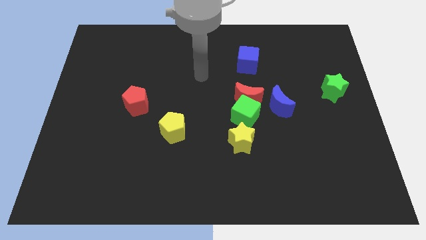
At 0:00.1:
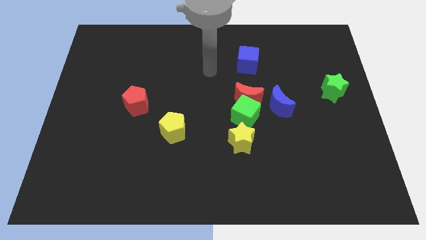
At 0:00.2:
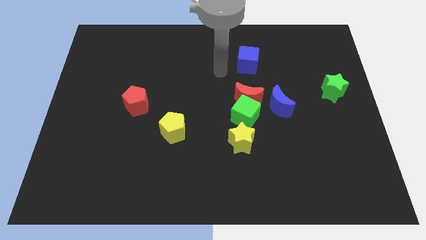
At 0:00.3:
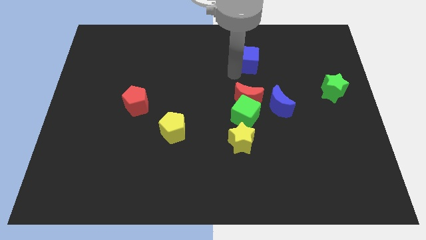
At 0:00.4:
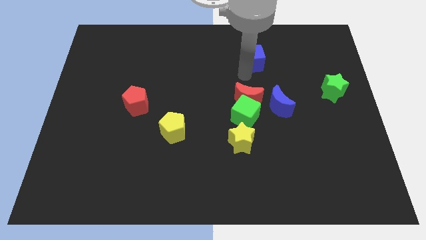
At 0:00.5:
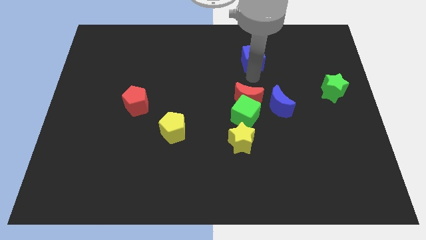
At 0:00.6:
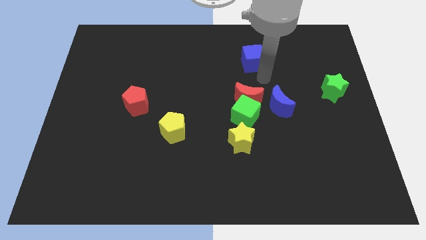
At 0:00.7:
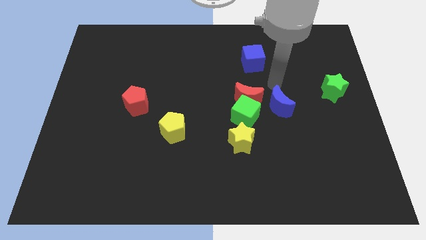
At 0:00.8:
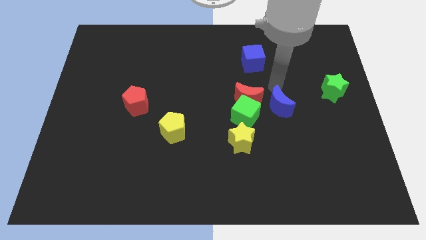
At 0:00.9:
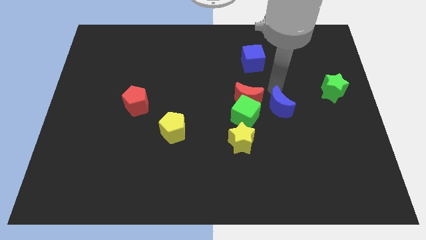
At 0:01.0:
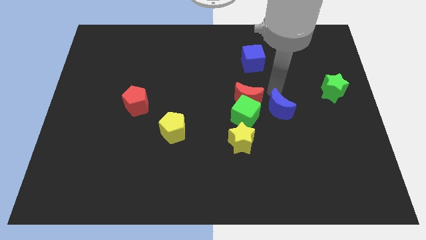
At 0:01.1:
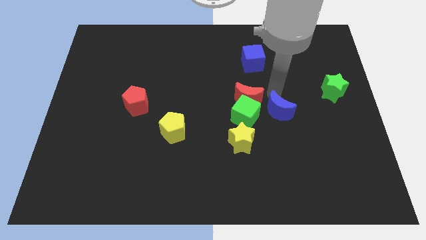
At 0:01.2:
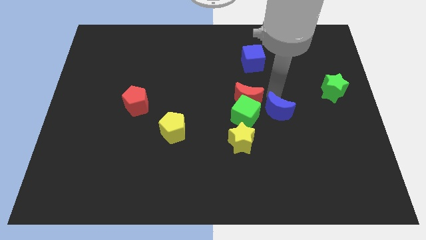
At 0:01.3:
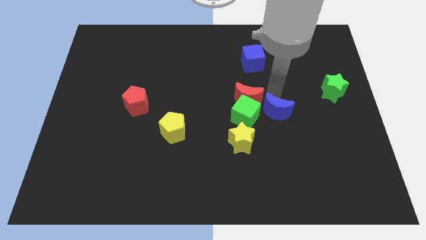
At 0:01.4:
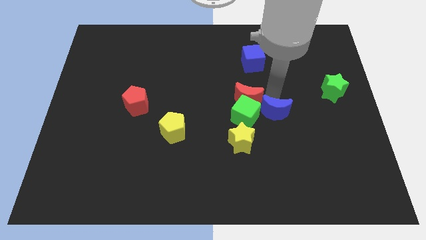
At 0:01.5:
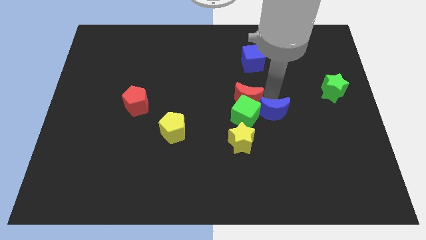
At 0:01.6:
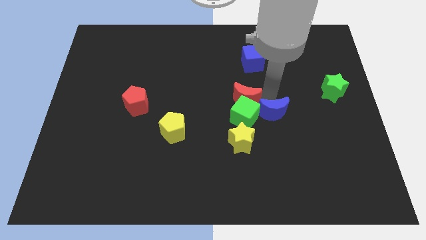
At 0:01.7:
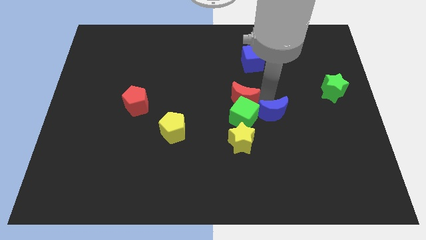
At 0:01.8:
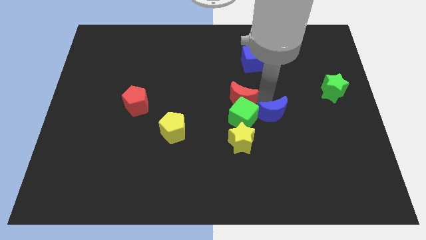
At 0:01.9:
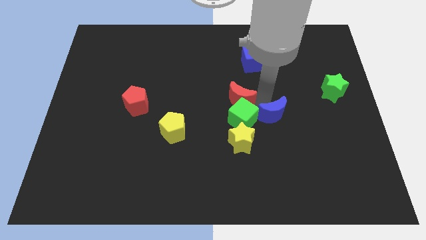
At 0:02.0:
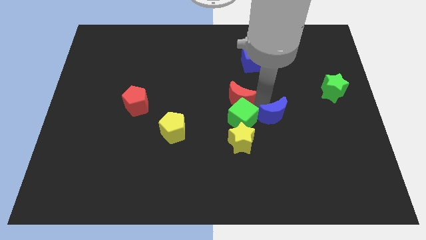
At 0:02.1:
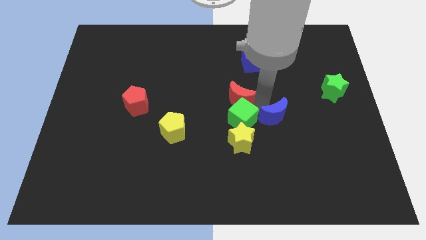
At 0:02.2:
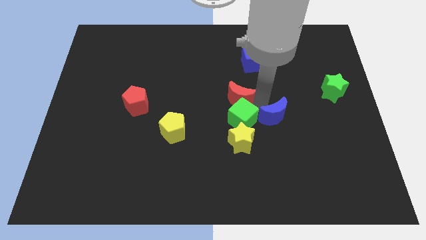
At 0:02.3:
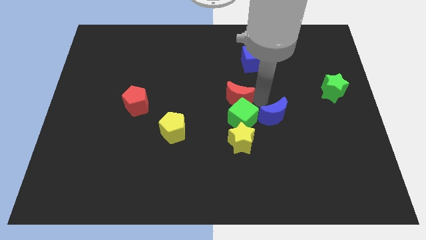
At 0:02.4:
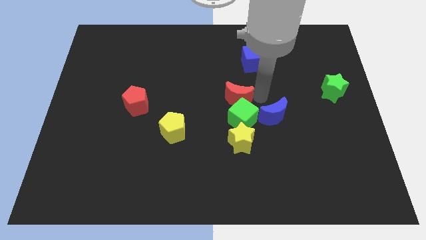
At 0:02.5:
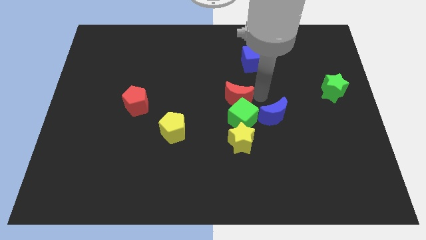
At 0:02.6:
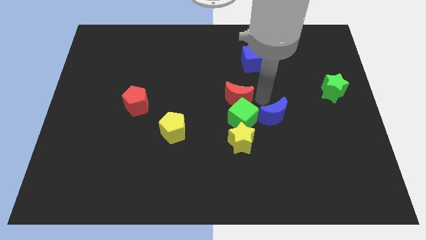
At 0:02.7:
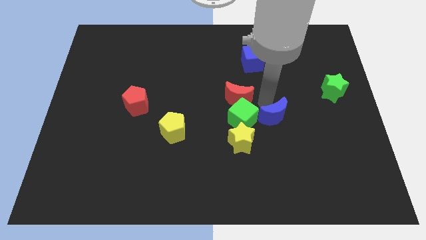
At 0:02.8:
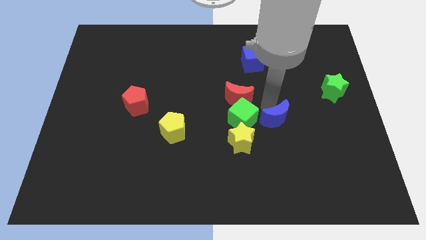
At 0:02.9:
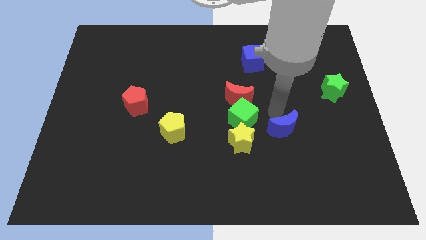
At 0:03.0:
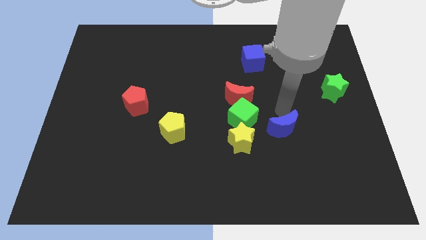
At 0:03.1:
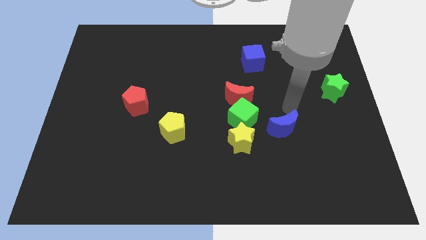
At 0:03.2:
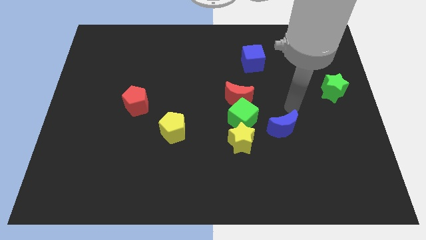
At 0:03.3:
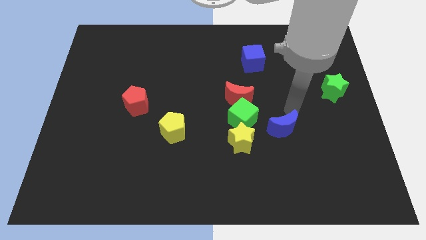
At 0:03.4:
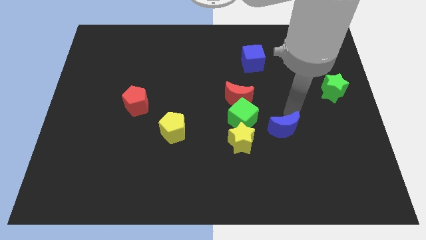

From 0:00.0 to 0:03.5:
move the blue moon somewhat down

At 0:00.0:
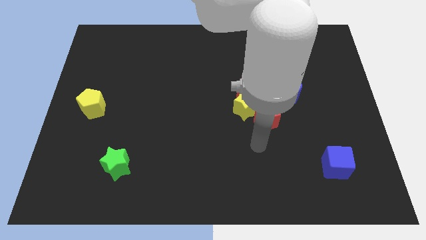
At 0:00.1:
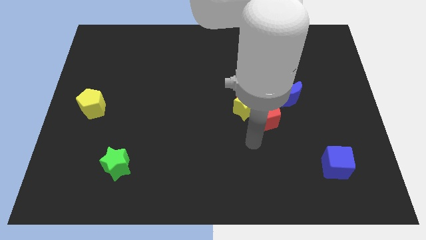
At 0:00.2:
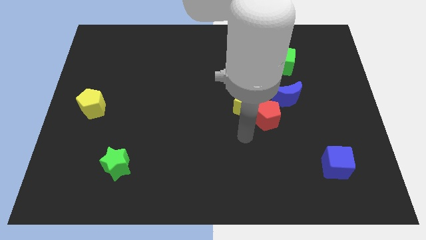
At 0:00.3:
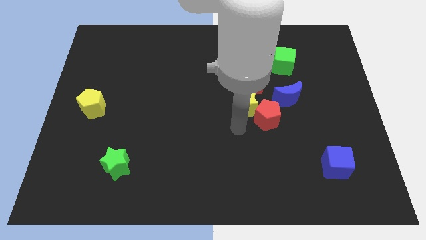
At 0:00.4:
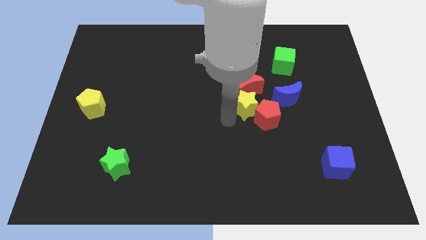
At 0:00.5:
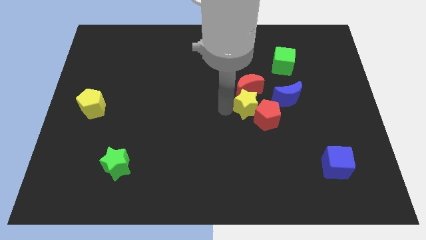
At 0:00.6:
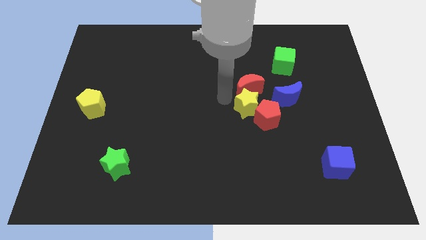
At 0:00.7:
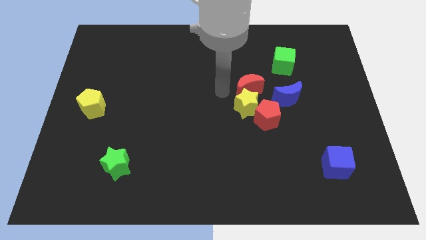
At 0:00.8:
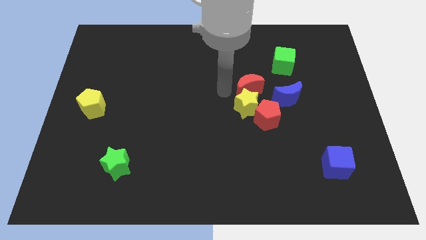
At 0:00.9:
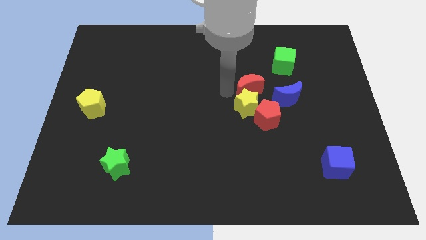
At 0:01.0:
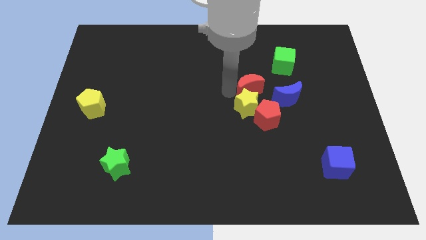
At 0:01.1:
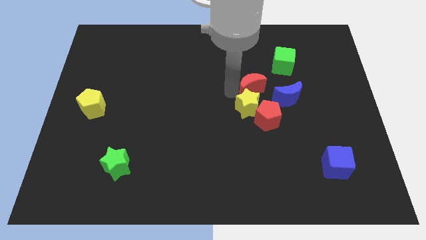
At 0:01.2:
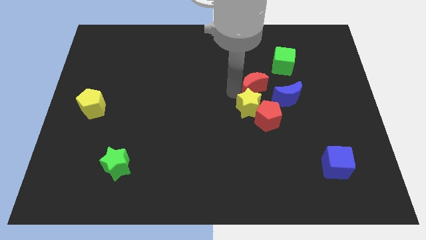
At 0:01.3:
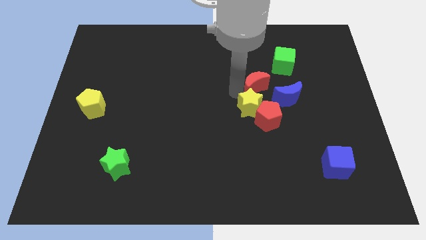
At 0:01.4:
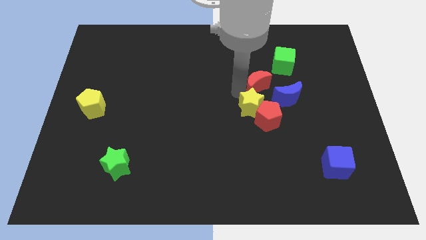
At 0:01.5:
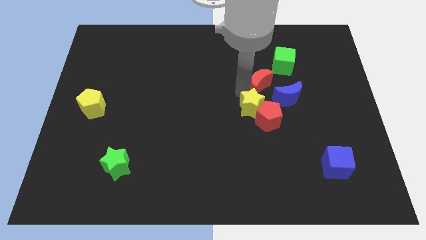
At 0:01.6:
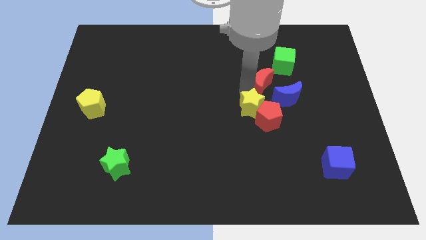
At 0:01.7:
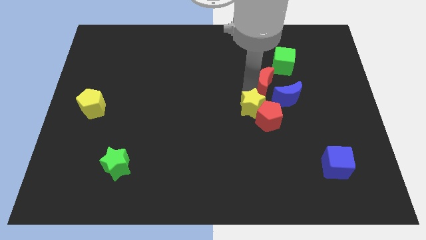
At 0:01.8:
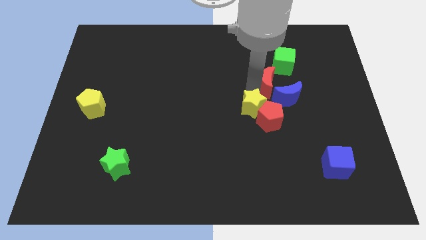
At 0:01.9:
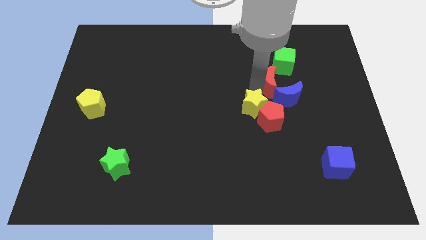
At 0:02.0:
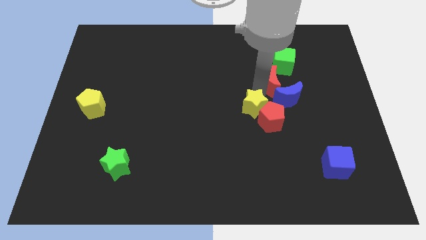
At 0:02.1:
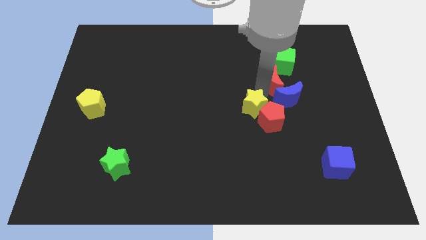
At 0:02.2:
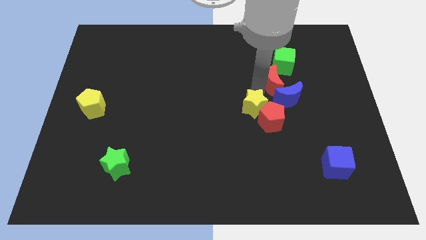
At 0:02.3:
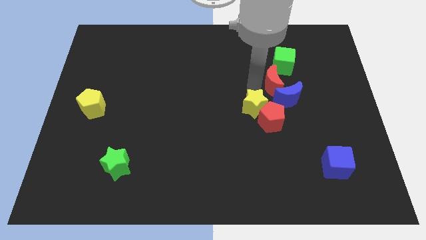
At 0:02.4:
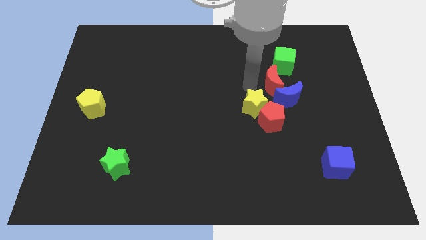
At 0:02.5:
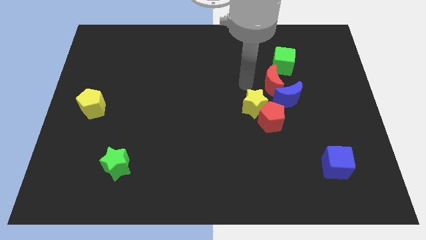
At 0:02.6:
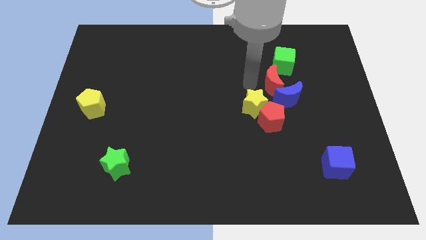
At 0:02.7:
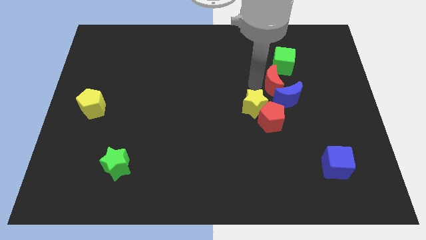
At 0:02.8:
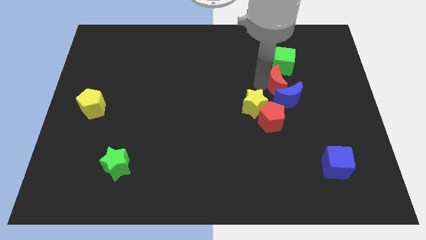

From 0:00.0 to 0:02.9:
slide the red moon right a little

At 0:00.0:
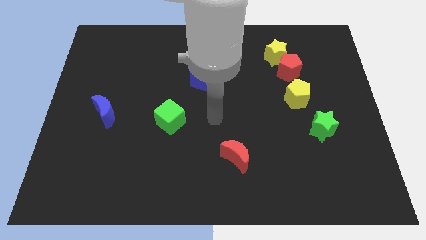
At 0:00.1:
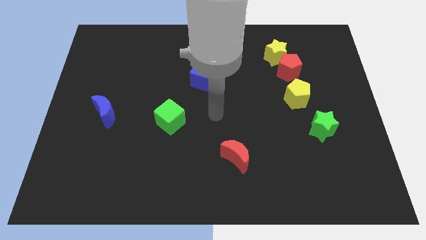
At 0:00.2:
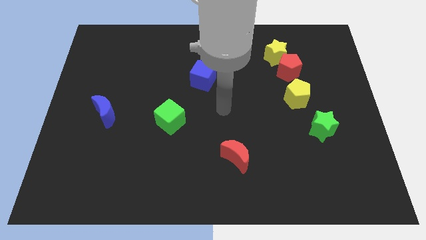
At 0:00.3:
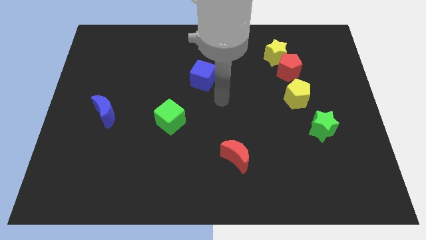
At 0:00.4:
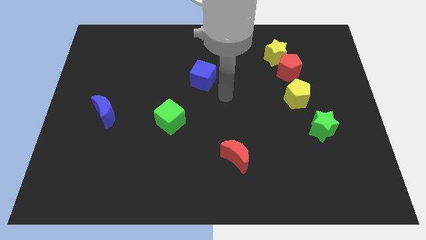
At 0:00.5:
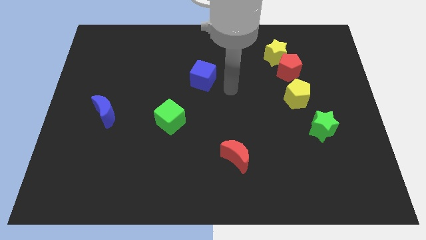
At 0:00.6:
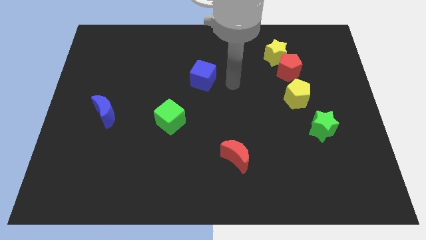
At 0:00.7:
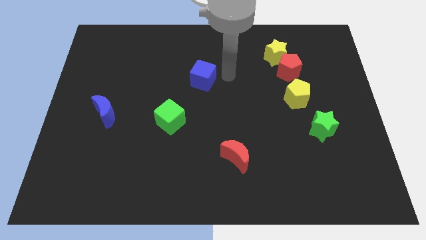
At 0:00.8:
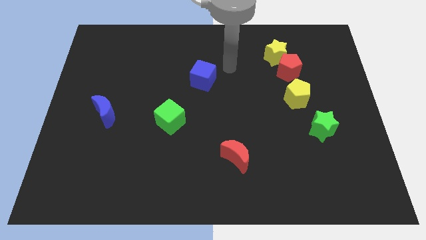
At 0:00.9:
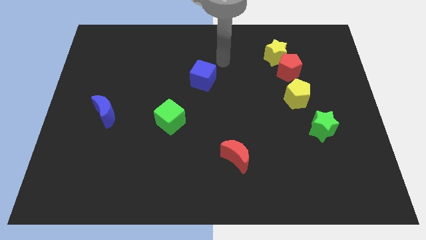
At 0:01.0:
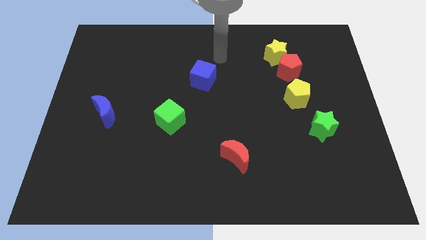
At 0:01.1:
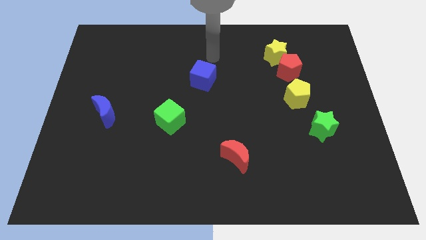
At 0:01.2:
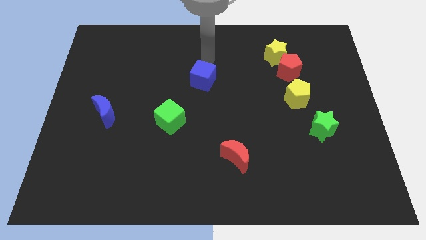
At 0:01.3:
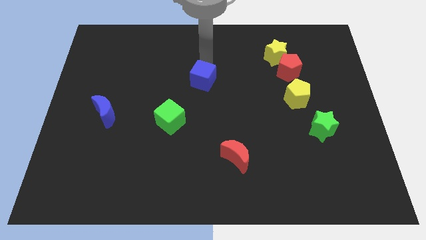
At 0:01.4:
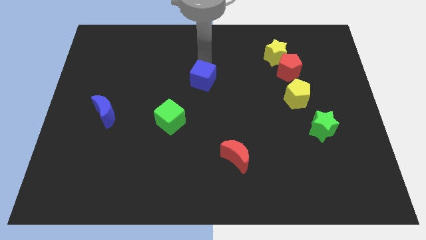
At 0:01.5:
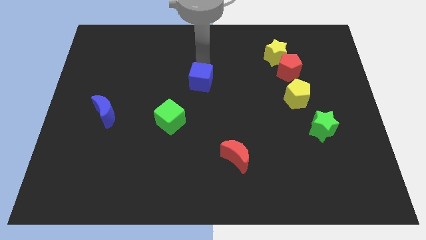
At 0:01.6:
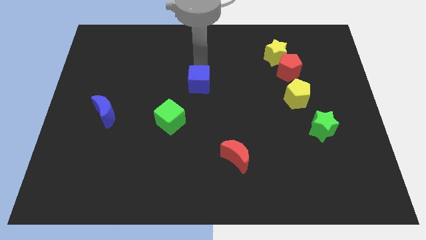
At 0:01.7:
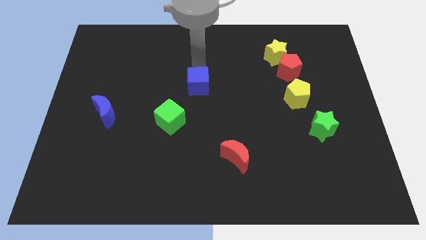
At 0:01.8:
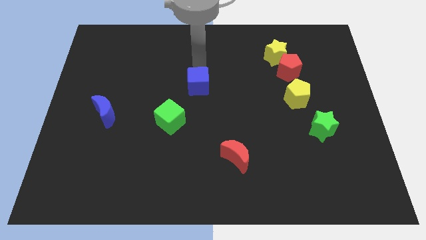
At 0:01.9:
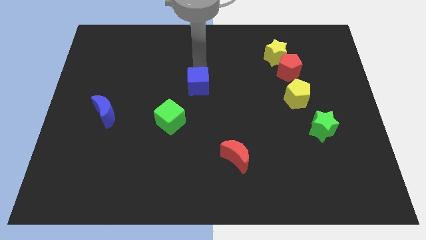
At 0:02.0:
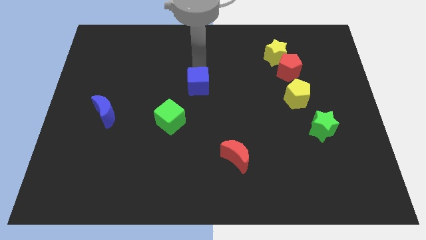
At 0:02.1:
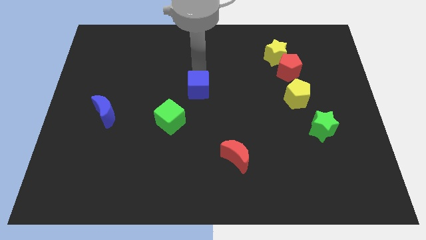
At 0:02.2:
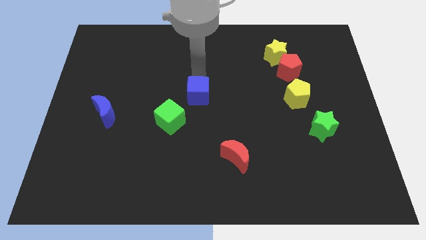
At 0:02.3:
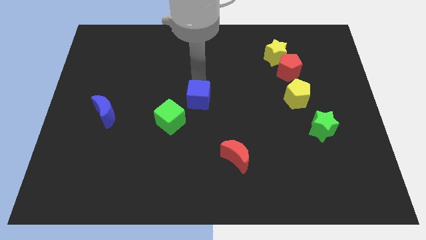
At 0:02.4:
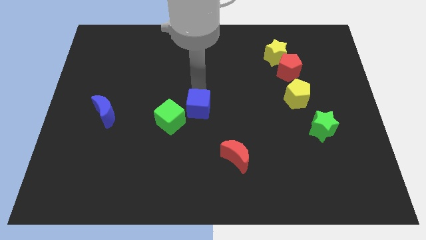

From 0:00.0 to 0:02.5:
move the blue cube a bit down
